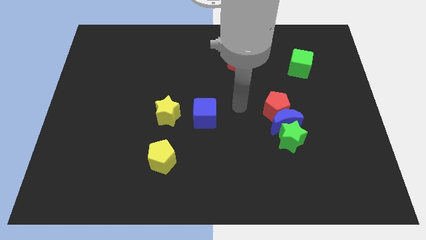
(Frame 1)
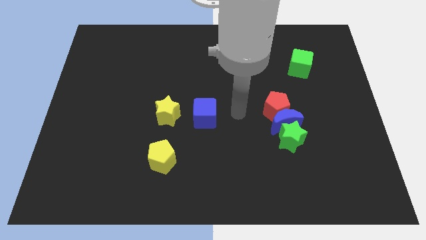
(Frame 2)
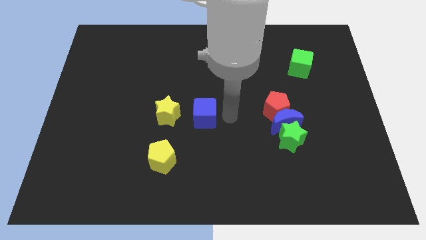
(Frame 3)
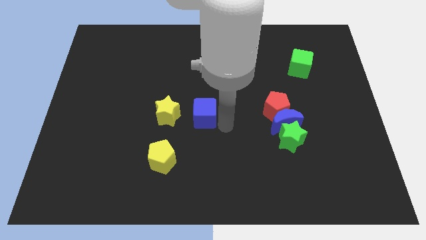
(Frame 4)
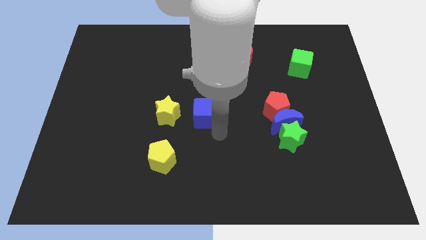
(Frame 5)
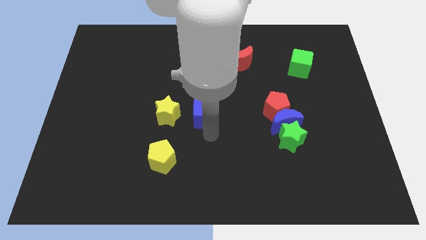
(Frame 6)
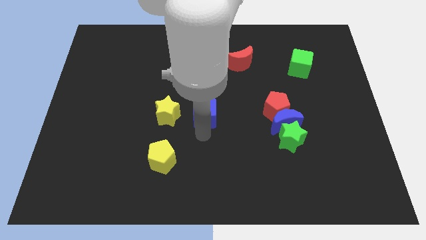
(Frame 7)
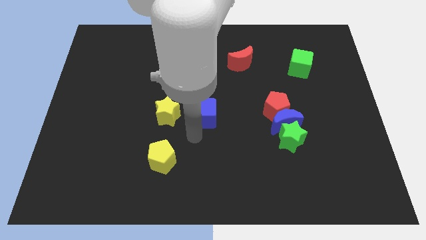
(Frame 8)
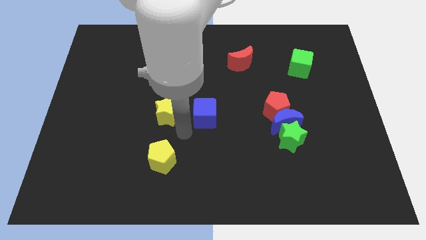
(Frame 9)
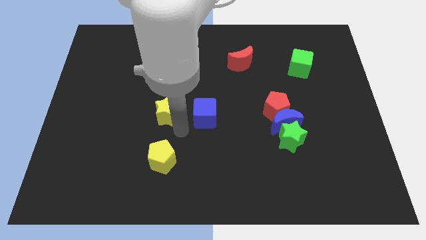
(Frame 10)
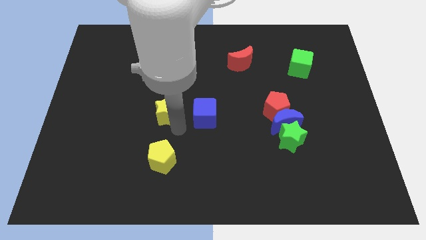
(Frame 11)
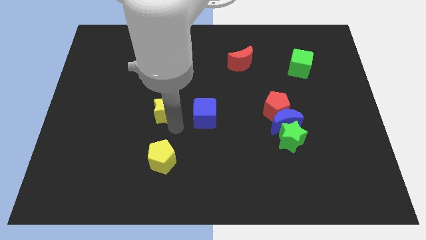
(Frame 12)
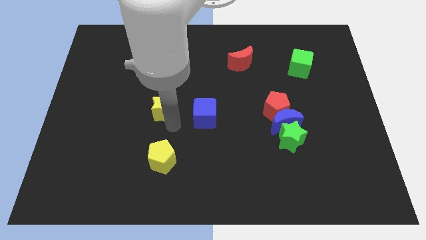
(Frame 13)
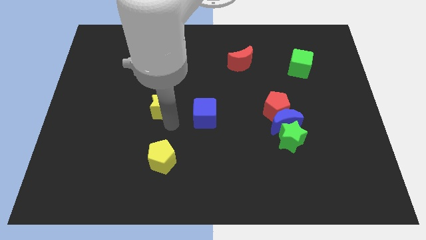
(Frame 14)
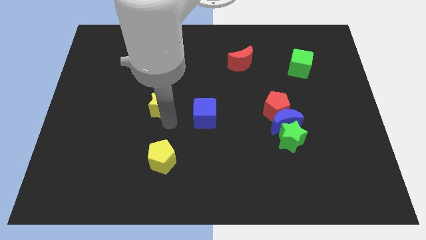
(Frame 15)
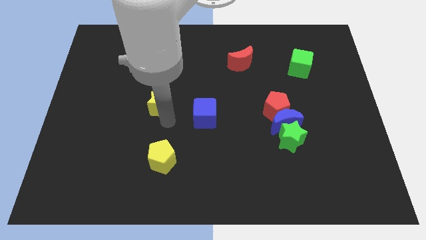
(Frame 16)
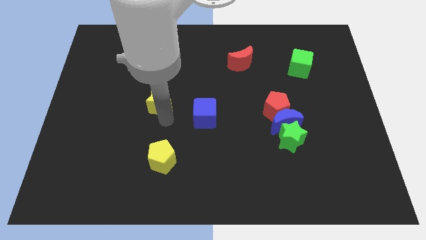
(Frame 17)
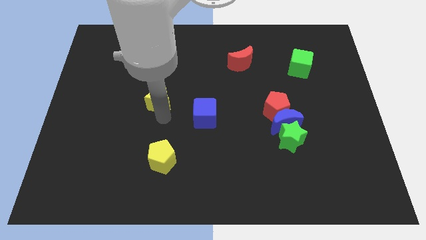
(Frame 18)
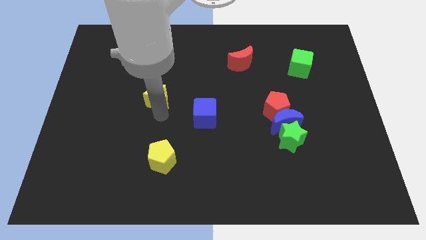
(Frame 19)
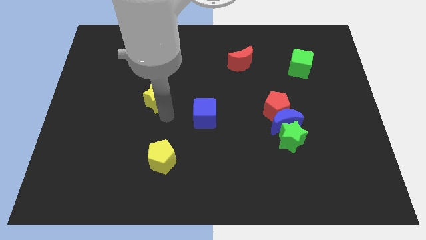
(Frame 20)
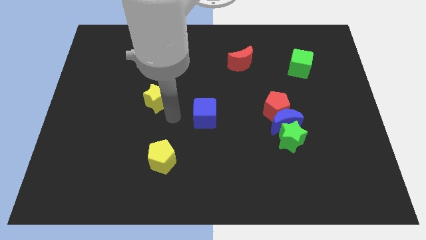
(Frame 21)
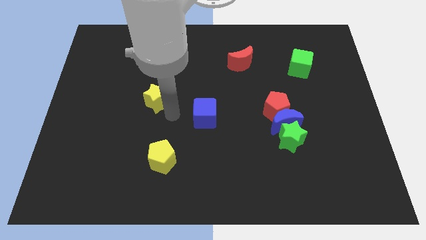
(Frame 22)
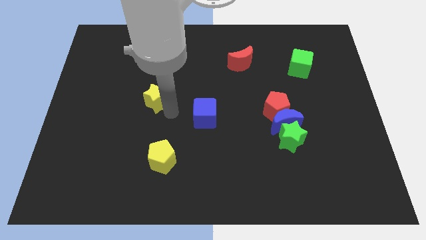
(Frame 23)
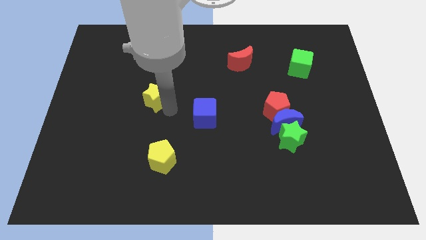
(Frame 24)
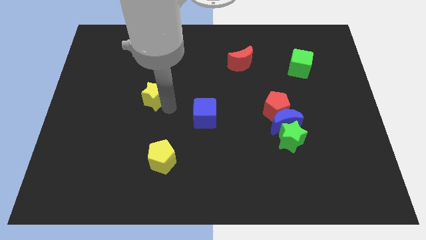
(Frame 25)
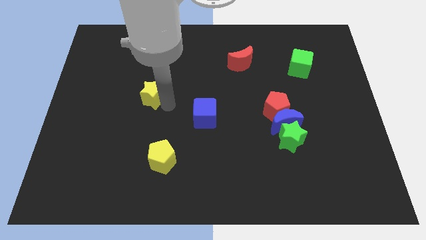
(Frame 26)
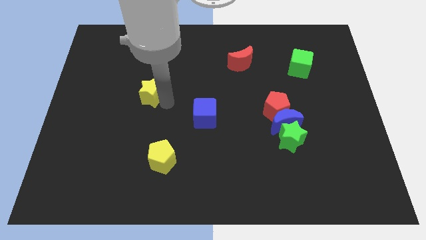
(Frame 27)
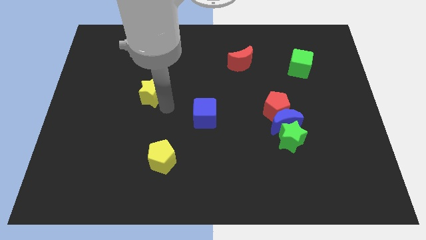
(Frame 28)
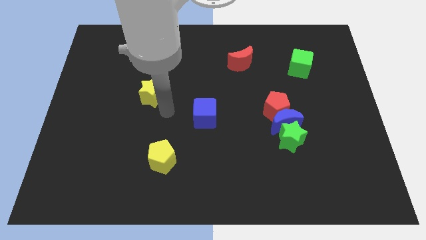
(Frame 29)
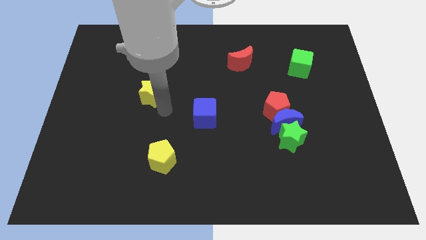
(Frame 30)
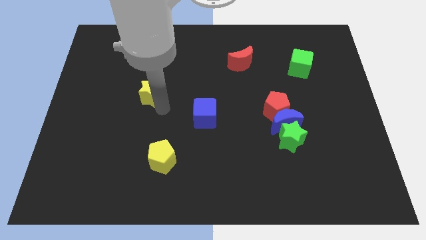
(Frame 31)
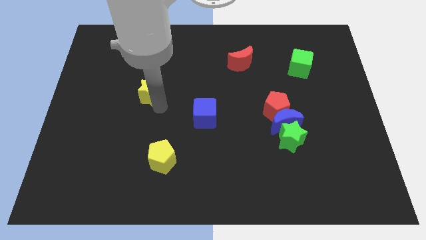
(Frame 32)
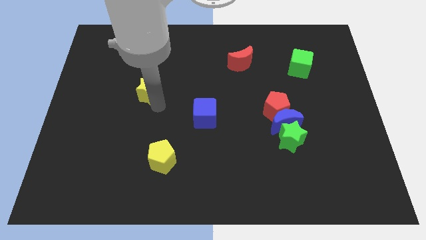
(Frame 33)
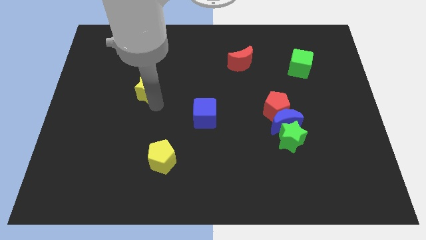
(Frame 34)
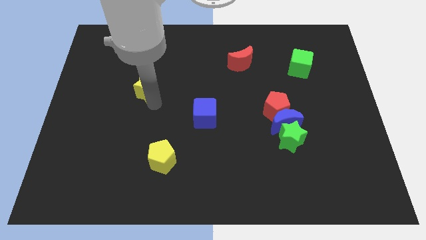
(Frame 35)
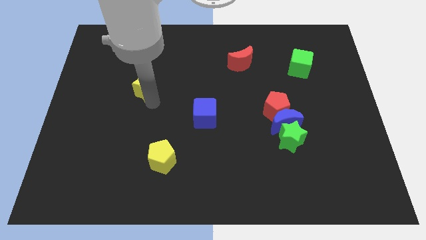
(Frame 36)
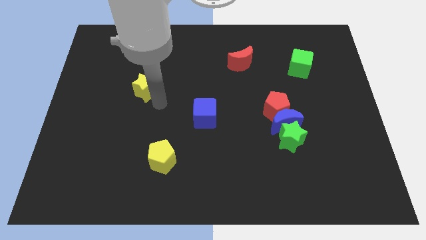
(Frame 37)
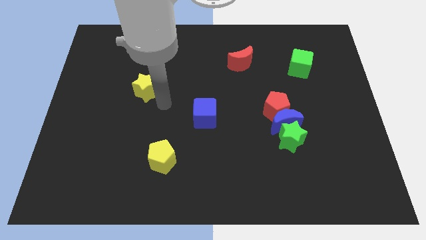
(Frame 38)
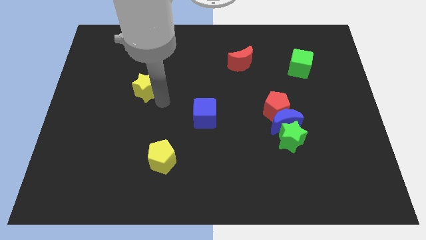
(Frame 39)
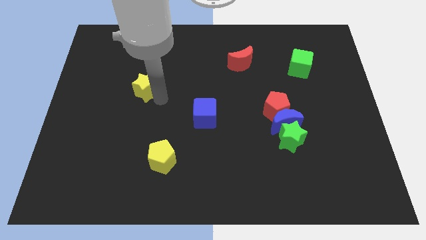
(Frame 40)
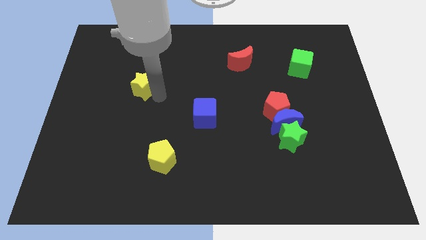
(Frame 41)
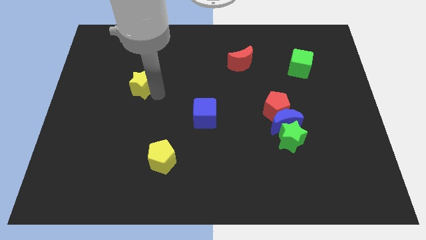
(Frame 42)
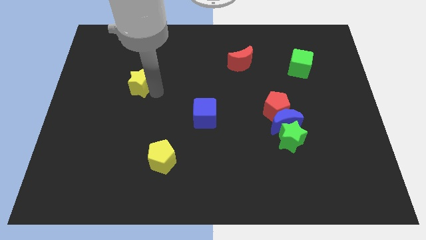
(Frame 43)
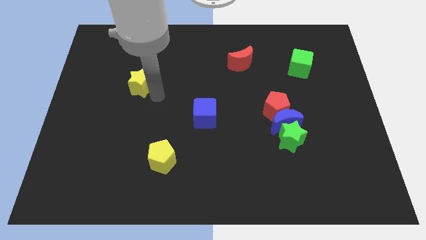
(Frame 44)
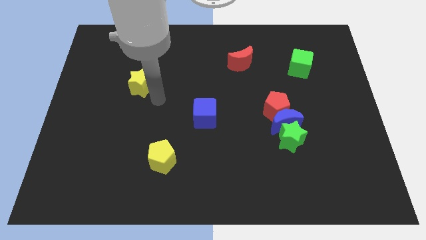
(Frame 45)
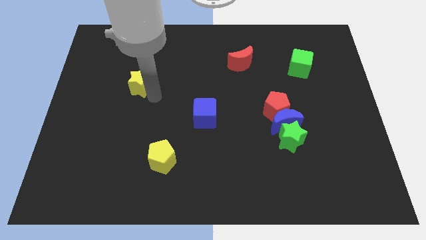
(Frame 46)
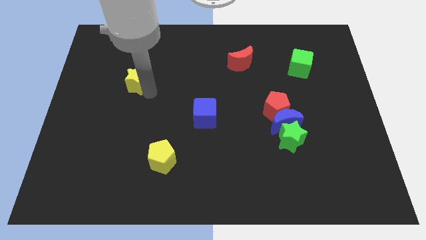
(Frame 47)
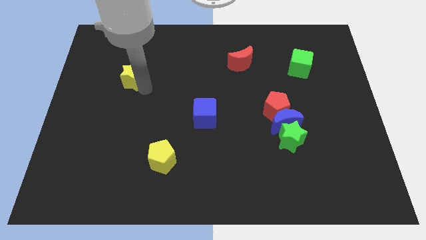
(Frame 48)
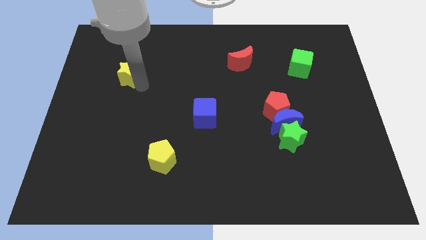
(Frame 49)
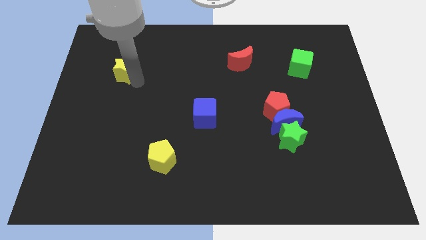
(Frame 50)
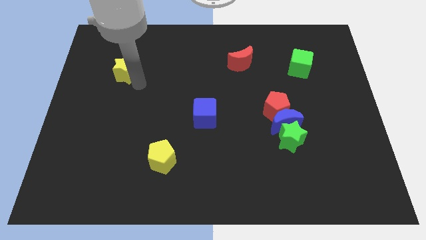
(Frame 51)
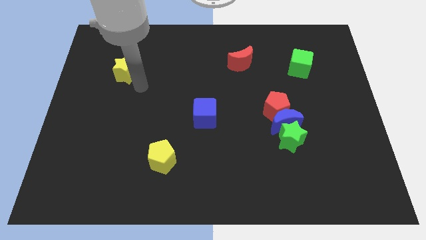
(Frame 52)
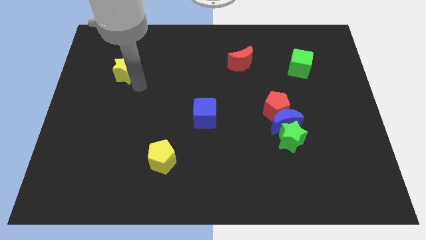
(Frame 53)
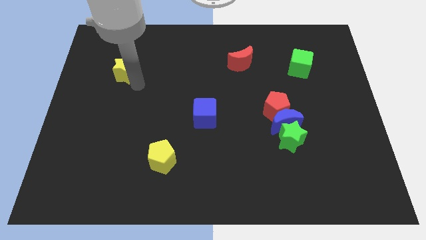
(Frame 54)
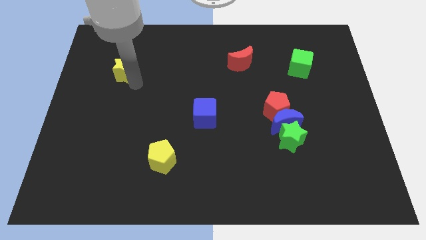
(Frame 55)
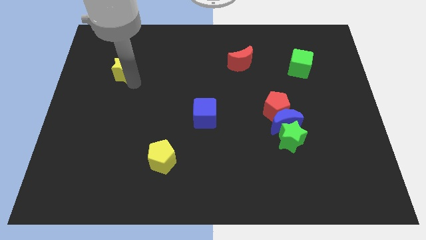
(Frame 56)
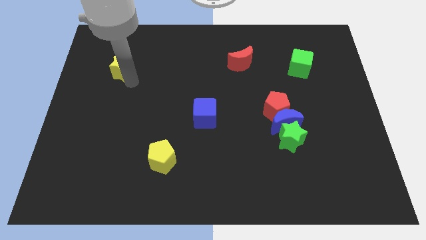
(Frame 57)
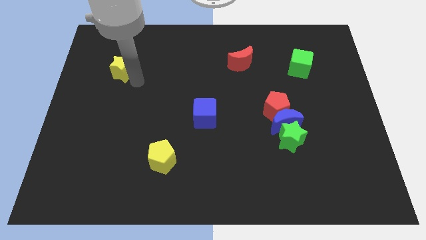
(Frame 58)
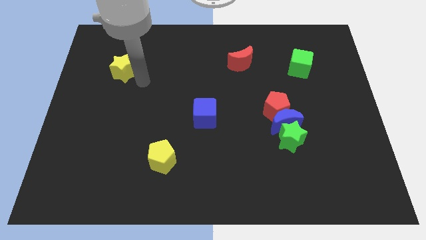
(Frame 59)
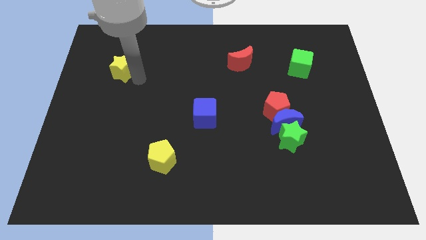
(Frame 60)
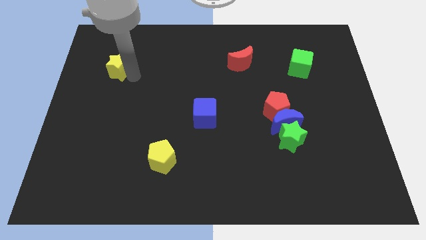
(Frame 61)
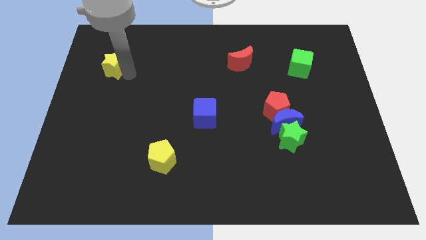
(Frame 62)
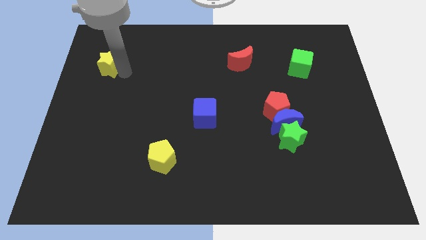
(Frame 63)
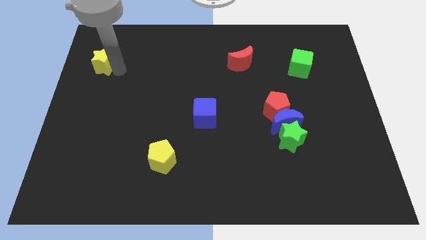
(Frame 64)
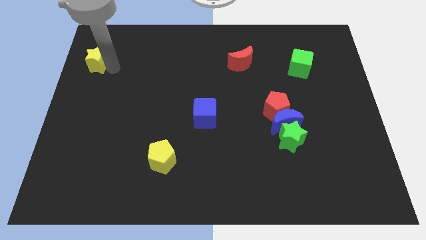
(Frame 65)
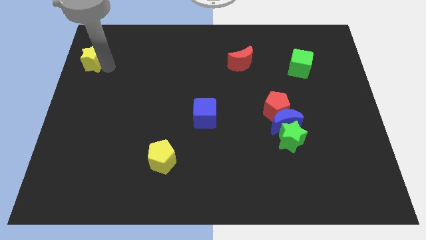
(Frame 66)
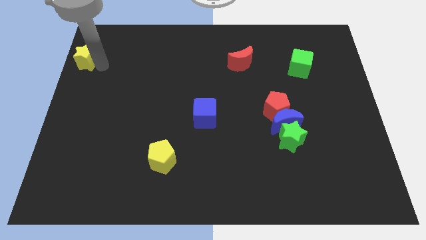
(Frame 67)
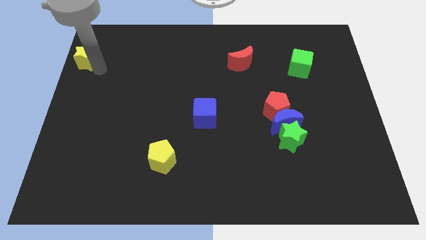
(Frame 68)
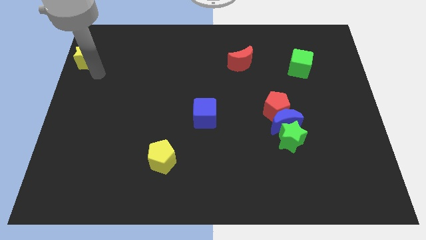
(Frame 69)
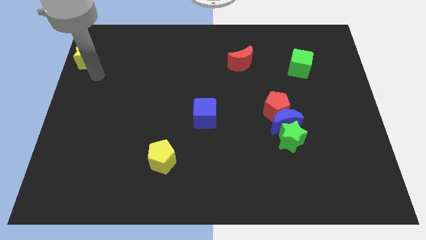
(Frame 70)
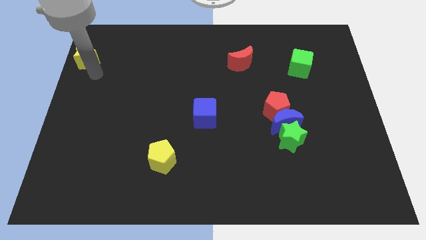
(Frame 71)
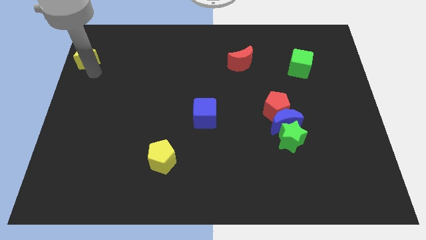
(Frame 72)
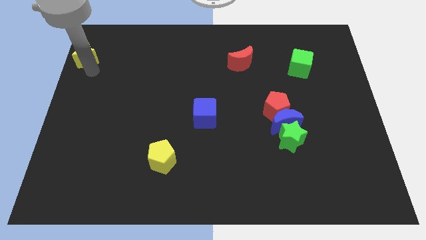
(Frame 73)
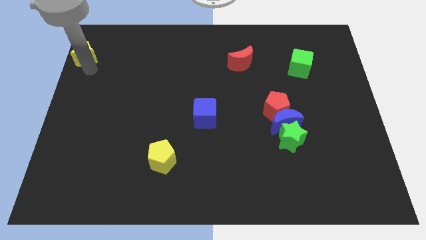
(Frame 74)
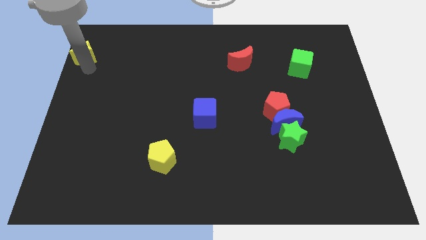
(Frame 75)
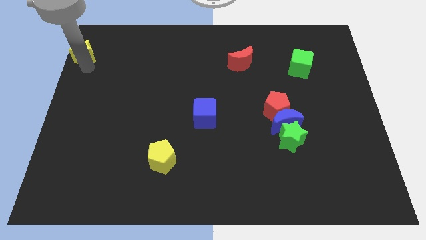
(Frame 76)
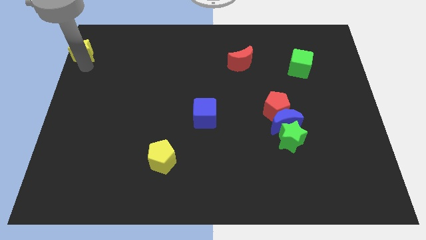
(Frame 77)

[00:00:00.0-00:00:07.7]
push the yellow star to the top left of the board
